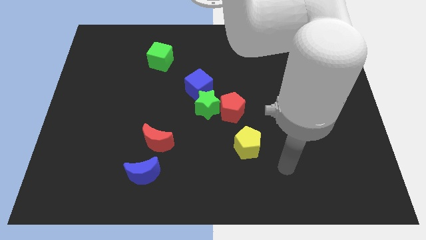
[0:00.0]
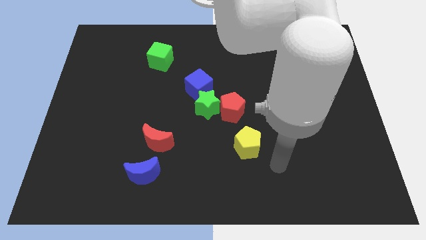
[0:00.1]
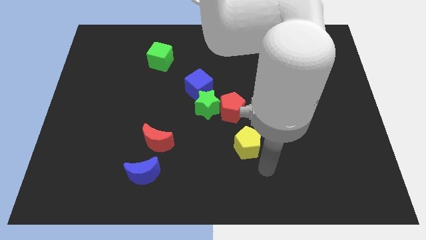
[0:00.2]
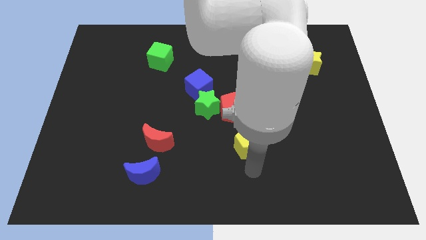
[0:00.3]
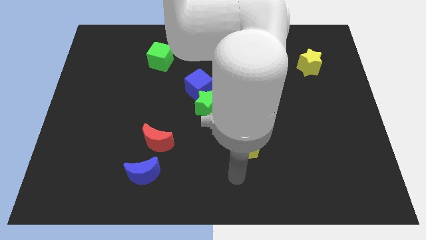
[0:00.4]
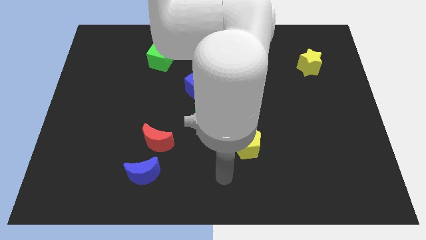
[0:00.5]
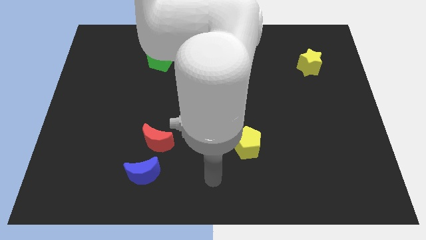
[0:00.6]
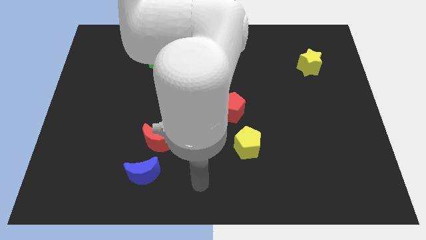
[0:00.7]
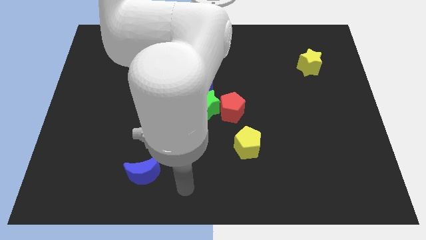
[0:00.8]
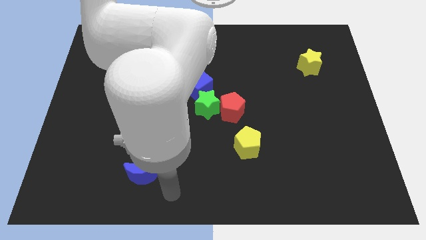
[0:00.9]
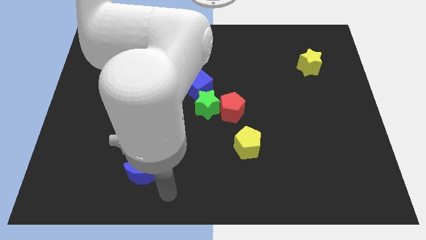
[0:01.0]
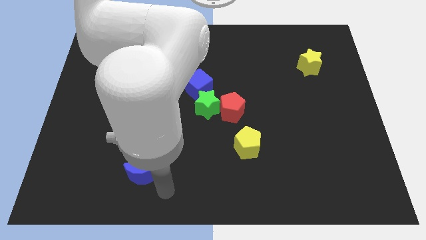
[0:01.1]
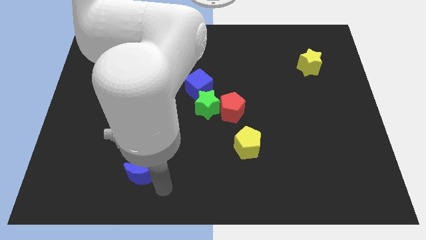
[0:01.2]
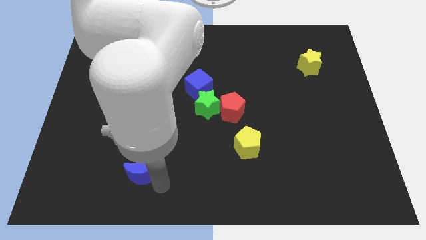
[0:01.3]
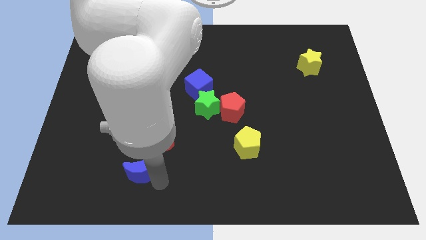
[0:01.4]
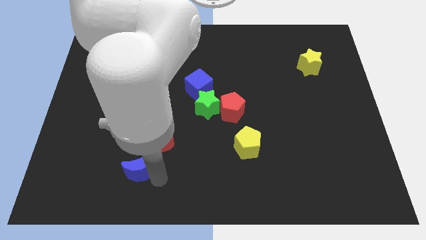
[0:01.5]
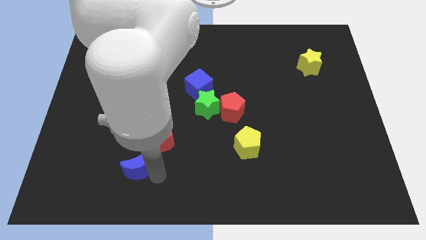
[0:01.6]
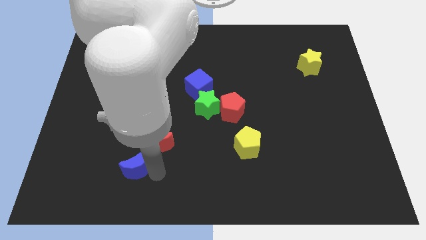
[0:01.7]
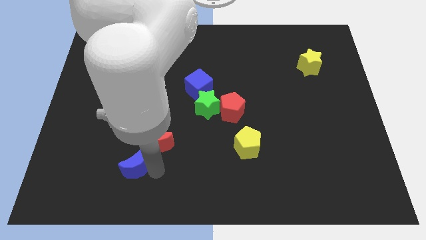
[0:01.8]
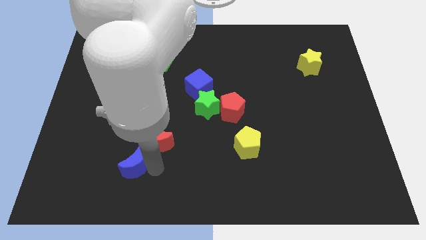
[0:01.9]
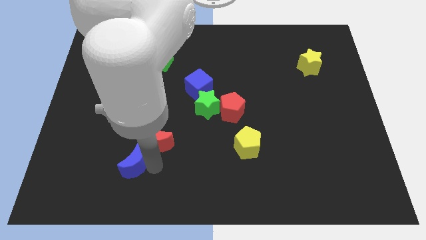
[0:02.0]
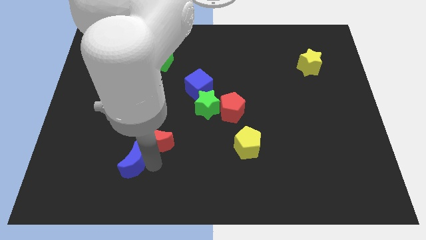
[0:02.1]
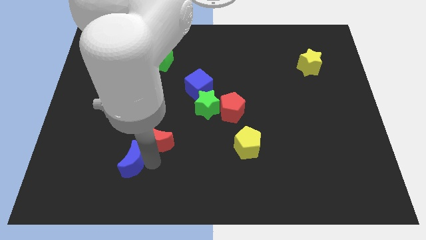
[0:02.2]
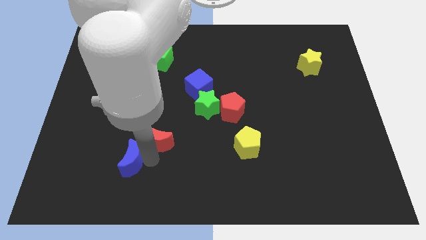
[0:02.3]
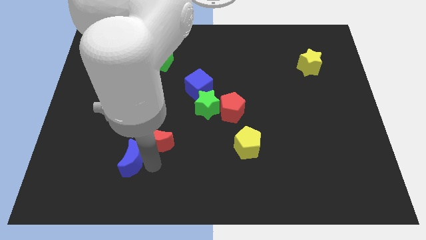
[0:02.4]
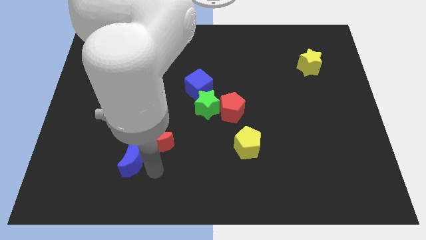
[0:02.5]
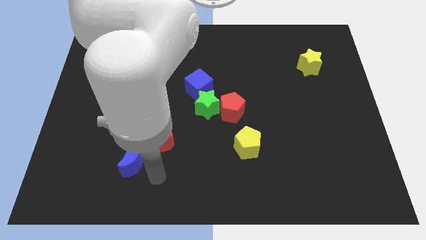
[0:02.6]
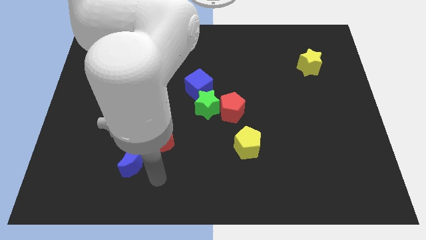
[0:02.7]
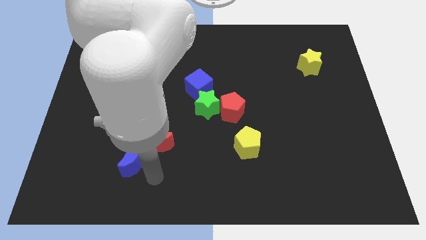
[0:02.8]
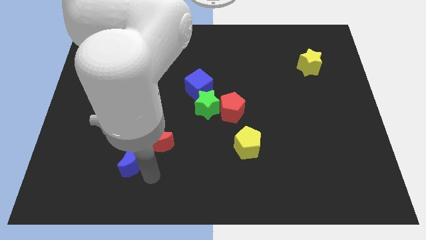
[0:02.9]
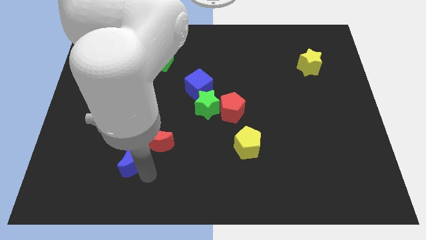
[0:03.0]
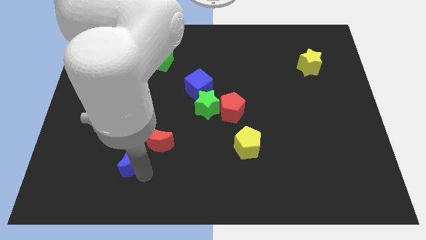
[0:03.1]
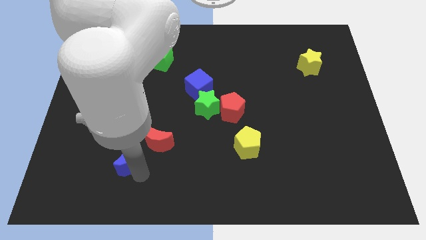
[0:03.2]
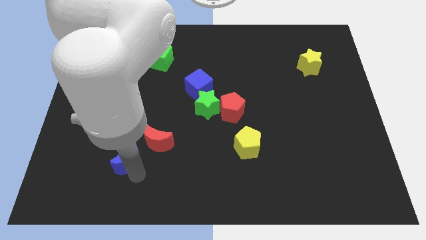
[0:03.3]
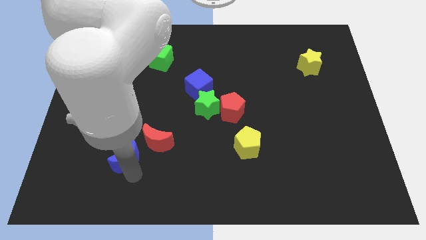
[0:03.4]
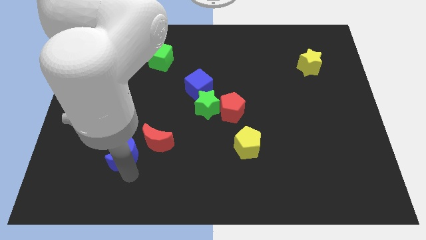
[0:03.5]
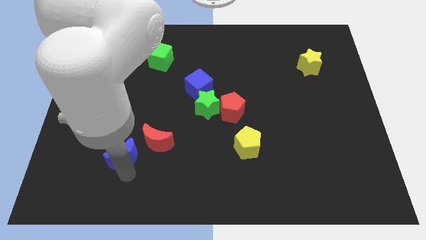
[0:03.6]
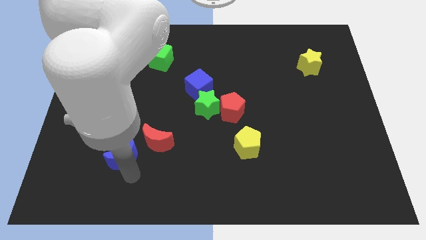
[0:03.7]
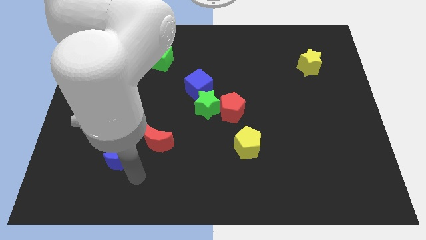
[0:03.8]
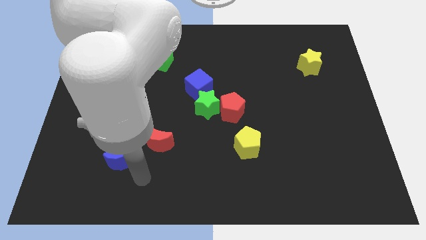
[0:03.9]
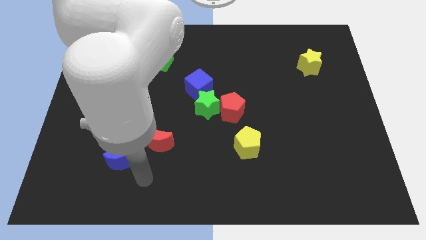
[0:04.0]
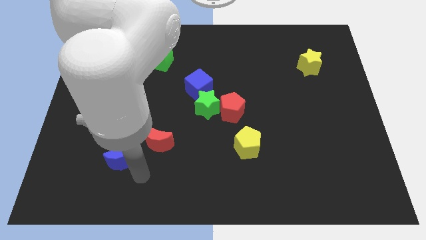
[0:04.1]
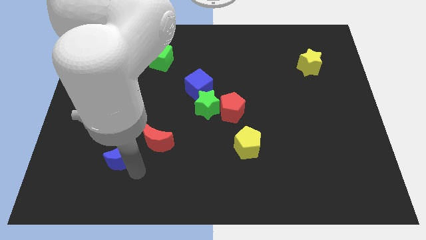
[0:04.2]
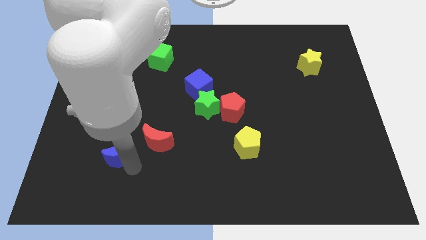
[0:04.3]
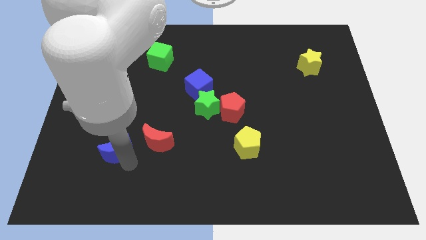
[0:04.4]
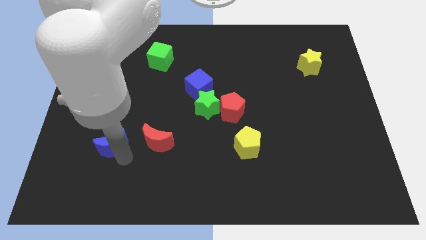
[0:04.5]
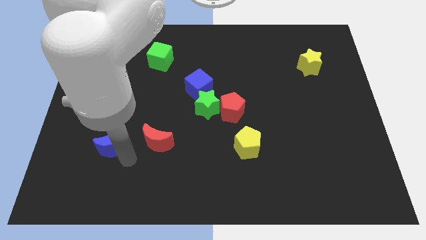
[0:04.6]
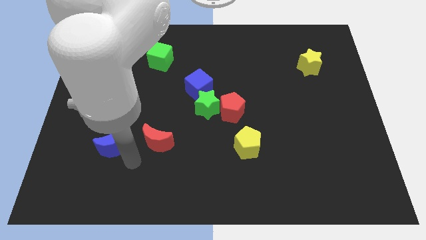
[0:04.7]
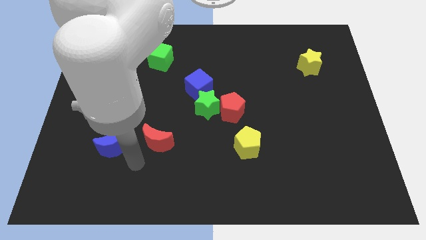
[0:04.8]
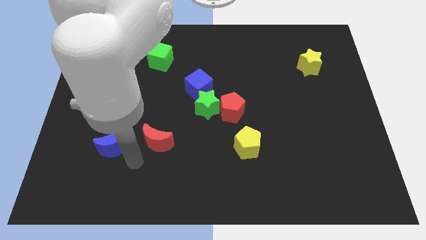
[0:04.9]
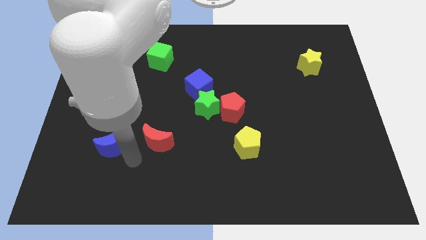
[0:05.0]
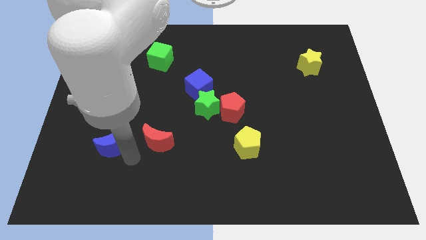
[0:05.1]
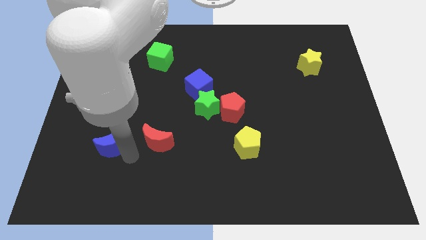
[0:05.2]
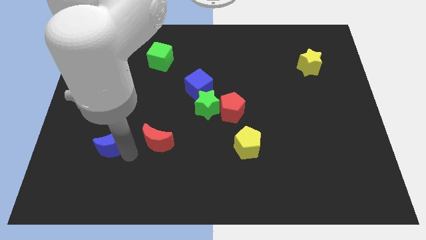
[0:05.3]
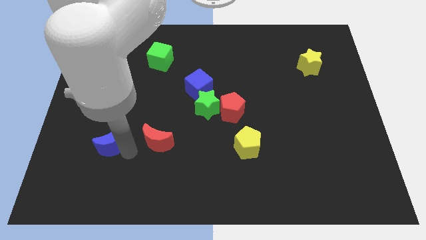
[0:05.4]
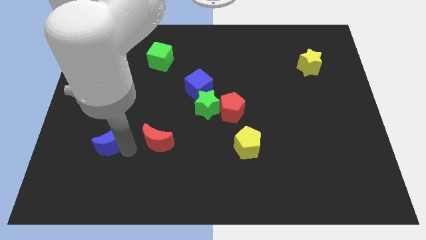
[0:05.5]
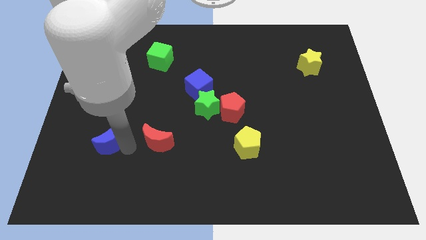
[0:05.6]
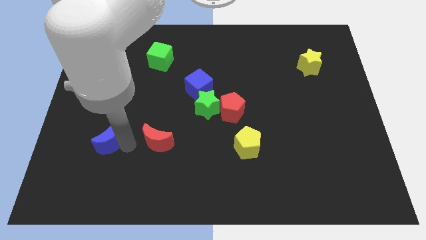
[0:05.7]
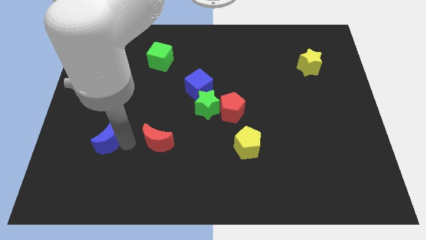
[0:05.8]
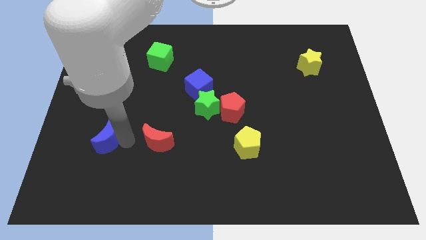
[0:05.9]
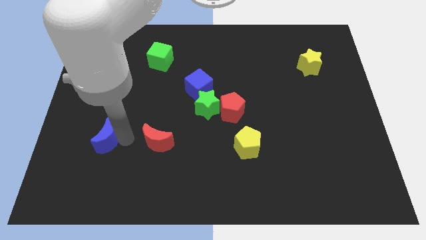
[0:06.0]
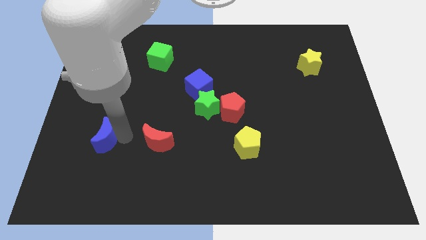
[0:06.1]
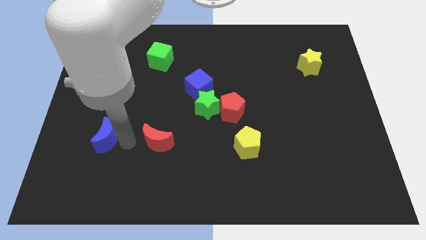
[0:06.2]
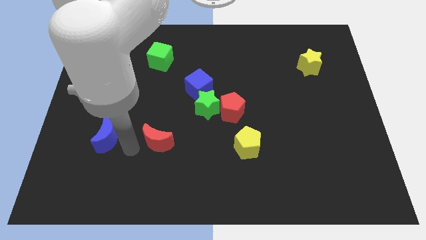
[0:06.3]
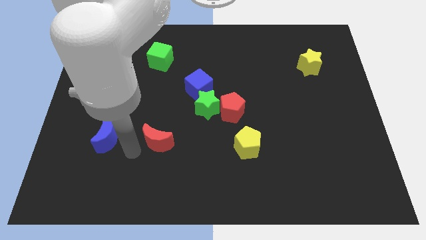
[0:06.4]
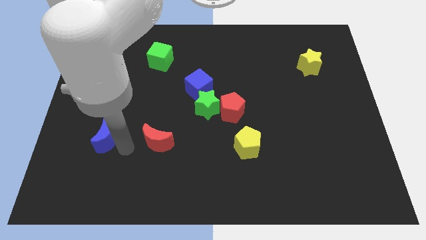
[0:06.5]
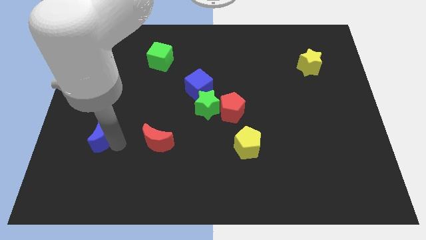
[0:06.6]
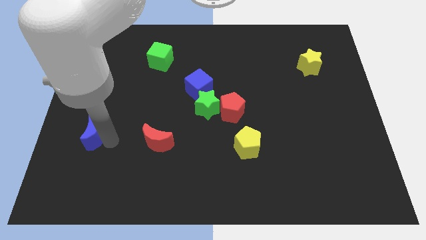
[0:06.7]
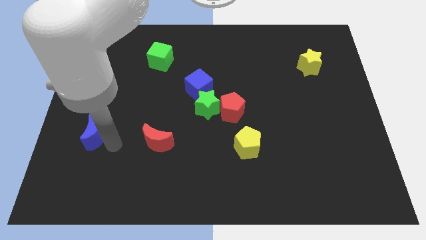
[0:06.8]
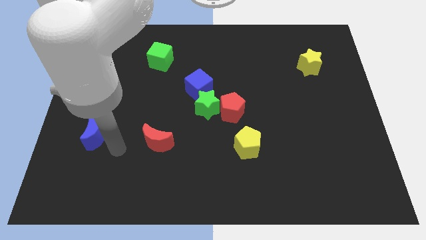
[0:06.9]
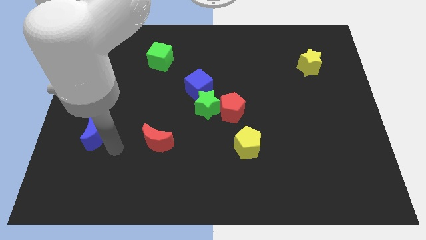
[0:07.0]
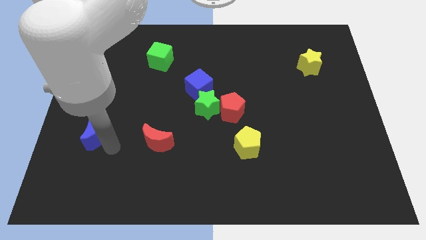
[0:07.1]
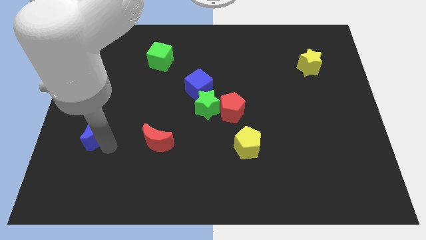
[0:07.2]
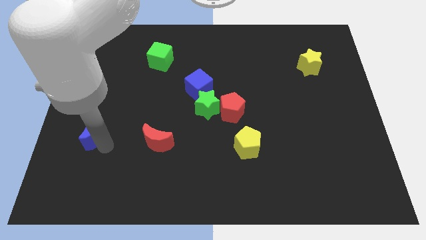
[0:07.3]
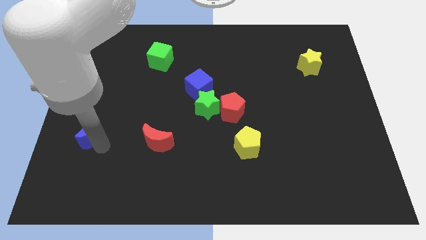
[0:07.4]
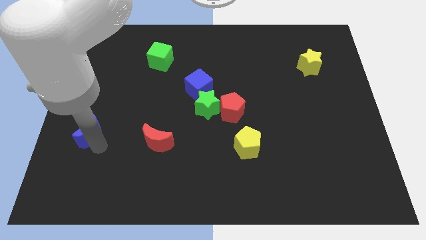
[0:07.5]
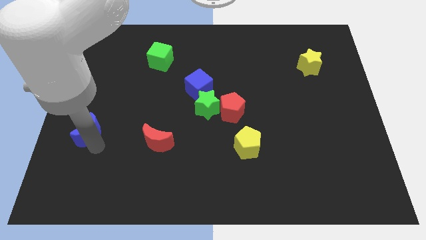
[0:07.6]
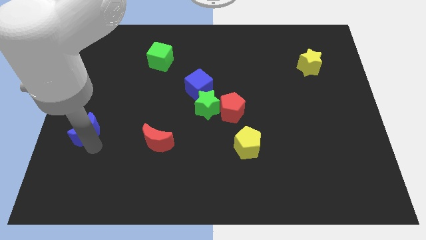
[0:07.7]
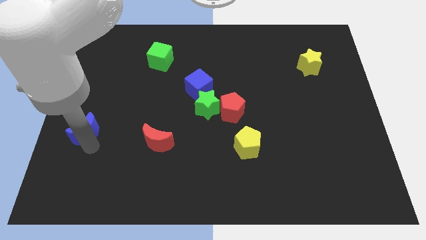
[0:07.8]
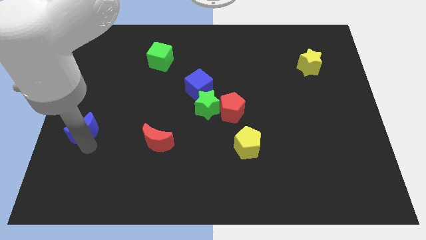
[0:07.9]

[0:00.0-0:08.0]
move the blue moon to the left side of the board
